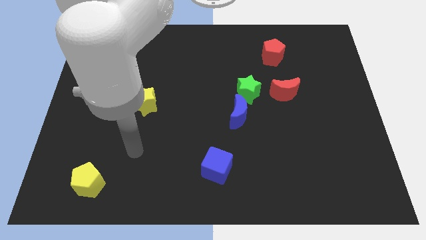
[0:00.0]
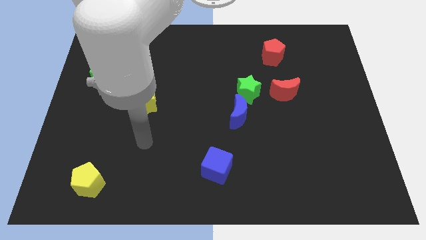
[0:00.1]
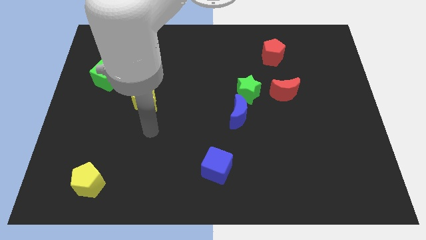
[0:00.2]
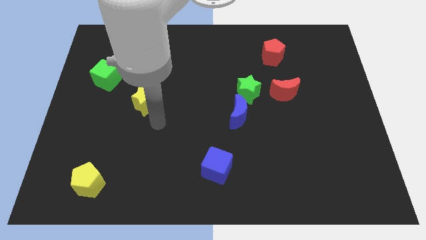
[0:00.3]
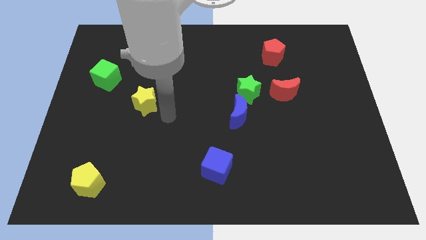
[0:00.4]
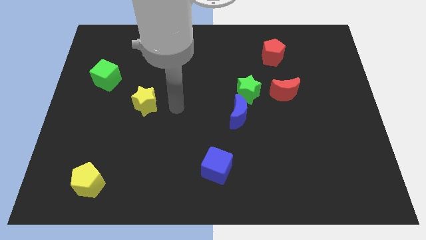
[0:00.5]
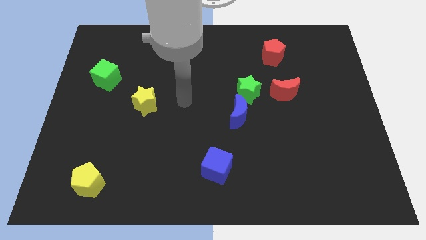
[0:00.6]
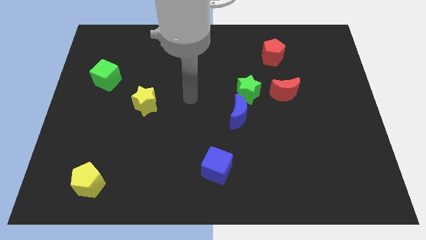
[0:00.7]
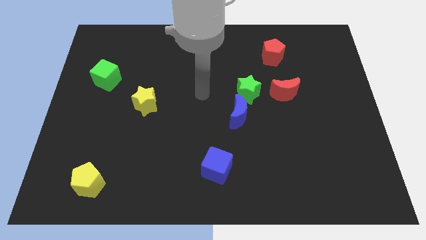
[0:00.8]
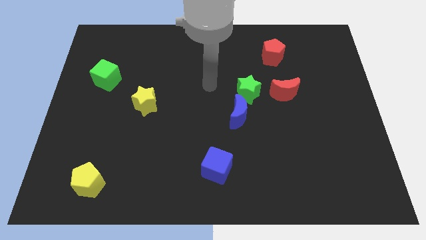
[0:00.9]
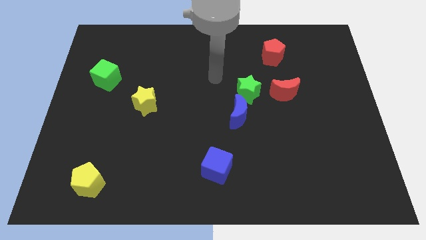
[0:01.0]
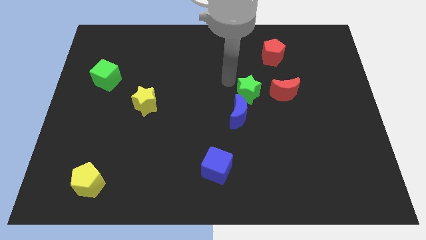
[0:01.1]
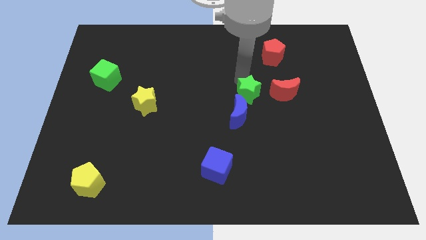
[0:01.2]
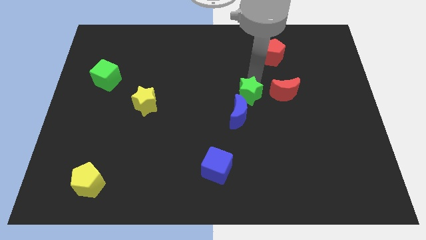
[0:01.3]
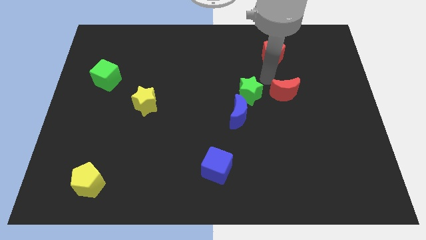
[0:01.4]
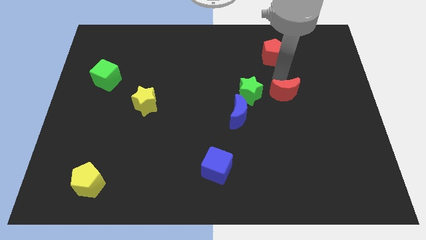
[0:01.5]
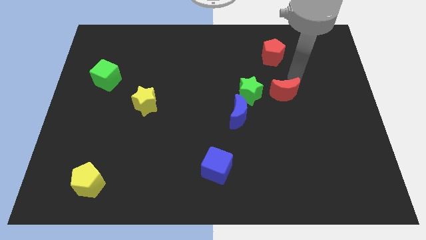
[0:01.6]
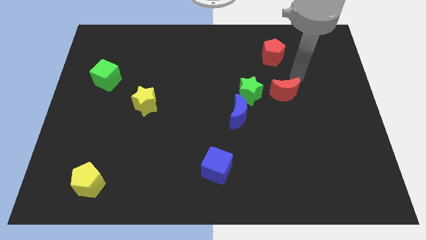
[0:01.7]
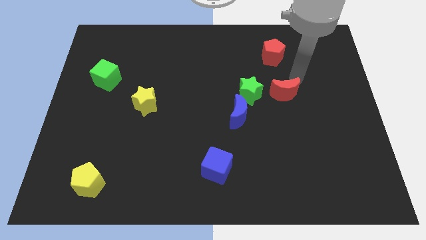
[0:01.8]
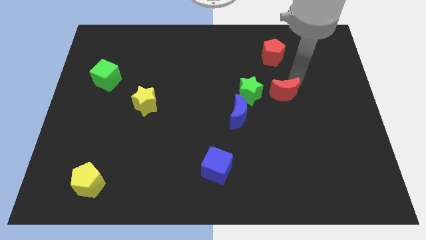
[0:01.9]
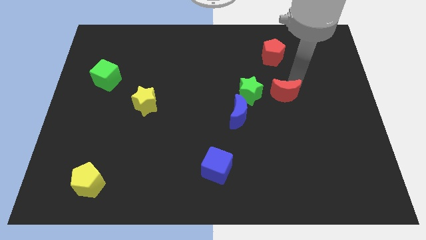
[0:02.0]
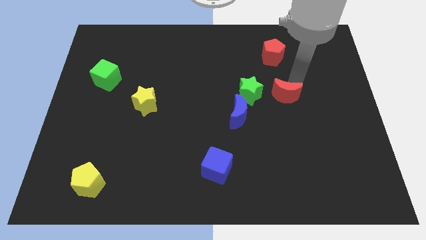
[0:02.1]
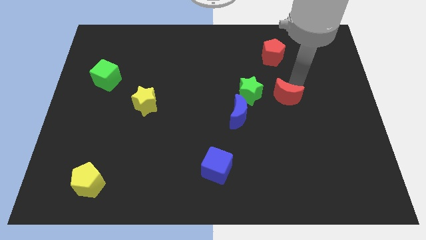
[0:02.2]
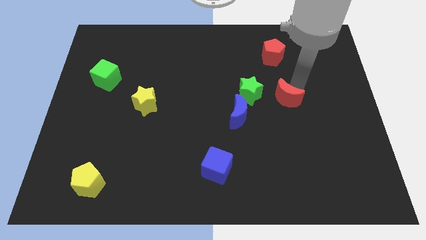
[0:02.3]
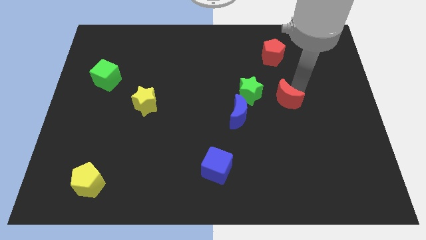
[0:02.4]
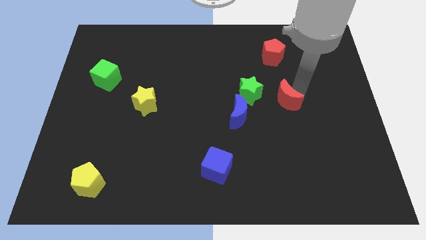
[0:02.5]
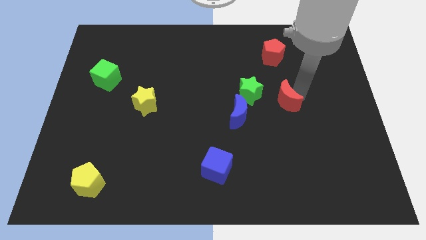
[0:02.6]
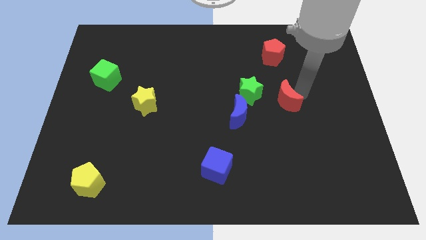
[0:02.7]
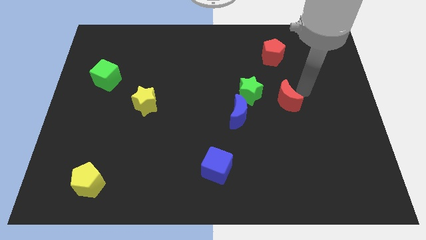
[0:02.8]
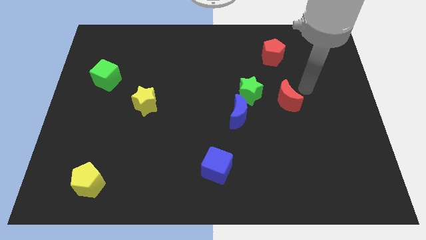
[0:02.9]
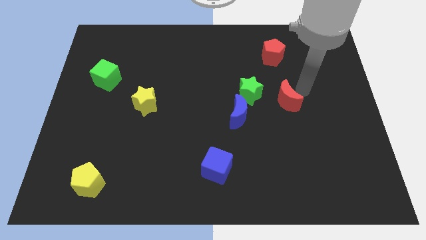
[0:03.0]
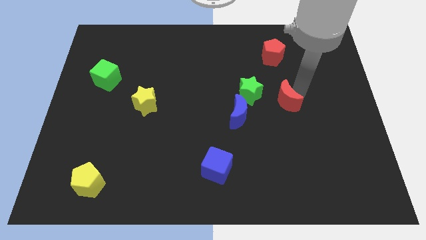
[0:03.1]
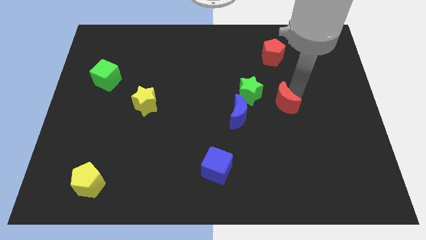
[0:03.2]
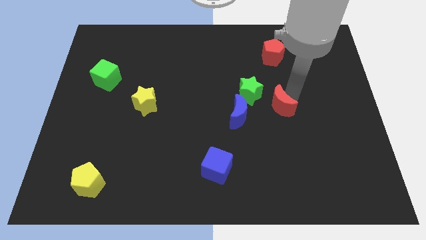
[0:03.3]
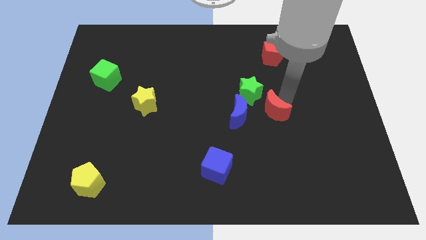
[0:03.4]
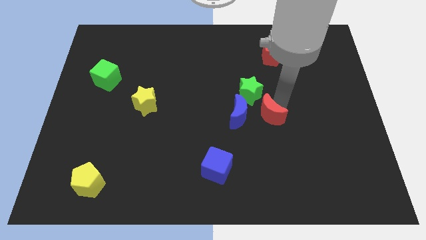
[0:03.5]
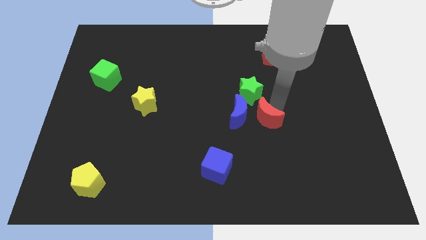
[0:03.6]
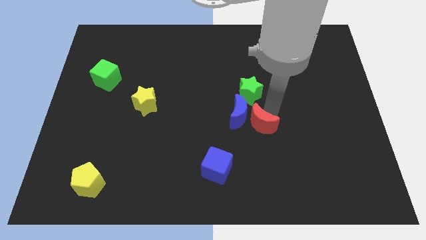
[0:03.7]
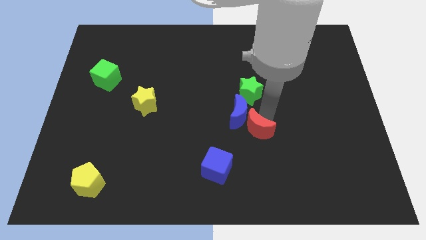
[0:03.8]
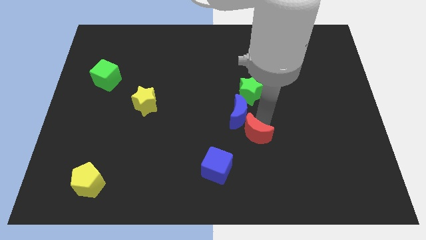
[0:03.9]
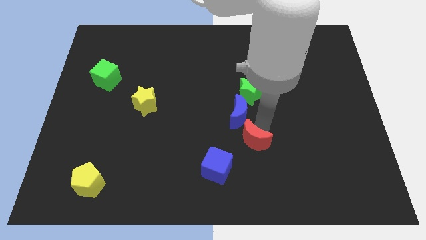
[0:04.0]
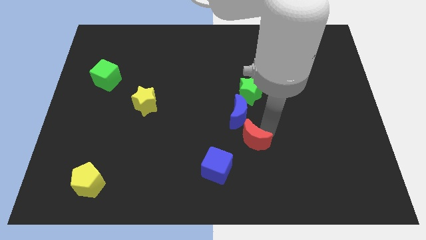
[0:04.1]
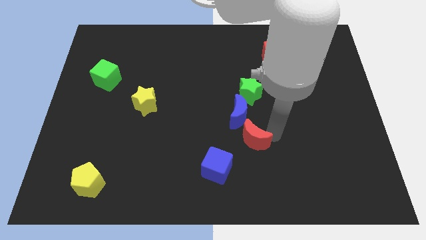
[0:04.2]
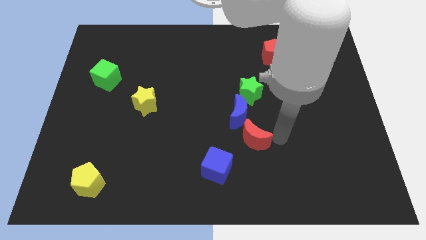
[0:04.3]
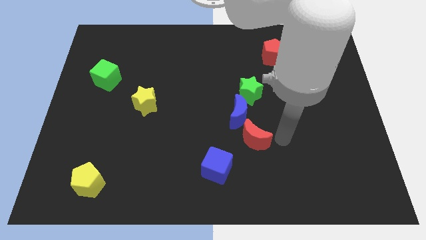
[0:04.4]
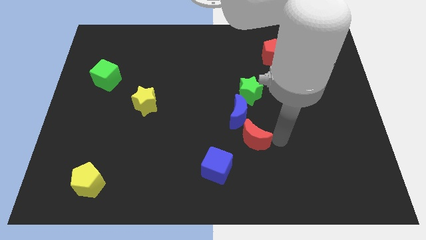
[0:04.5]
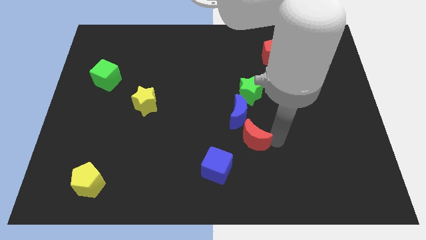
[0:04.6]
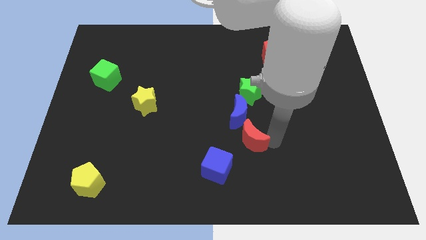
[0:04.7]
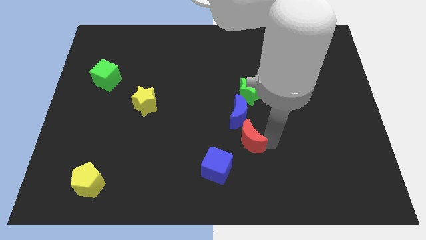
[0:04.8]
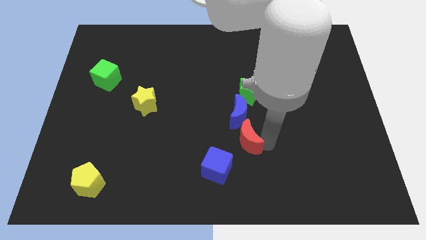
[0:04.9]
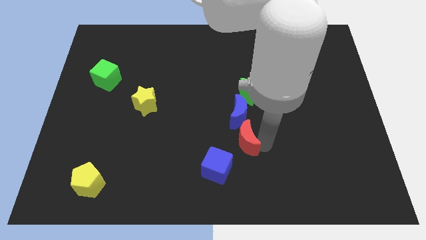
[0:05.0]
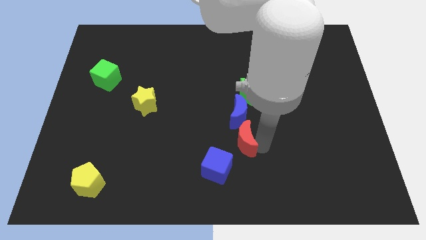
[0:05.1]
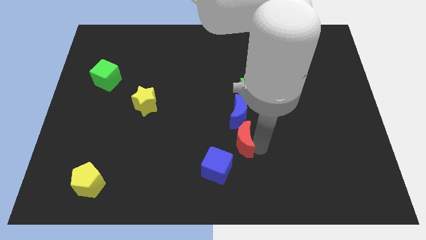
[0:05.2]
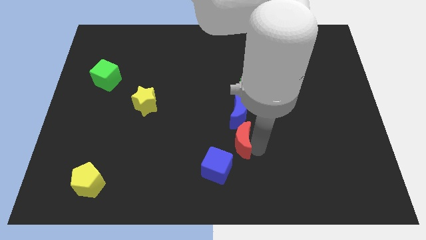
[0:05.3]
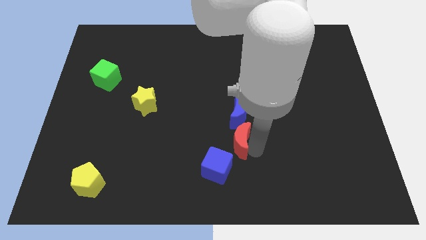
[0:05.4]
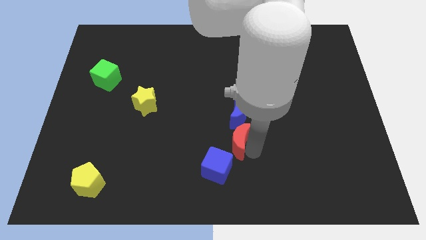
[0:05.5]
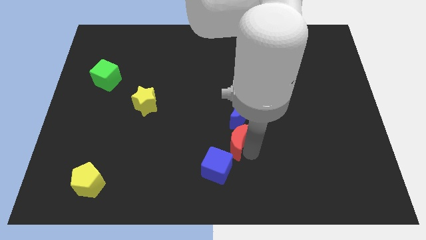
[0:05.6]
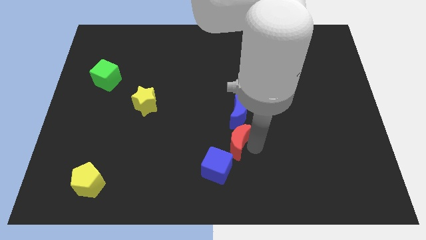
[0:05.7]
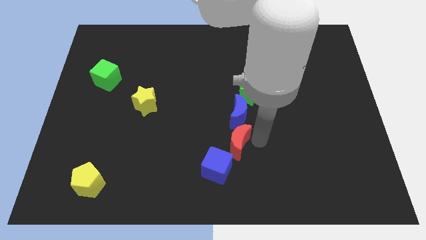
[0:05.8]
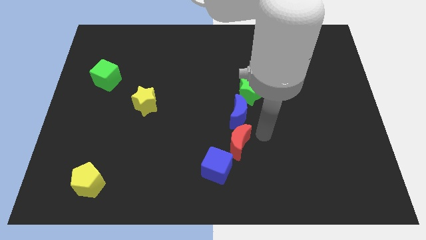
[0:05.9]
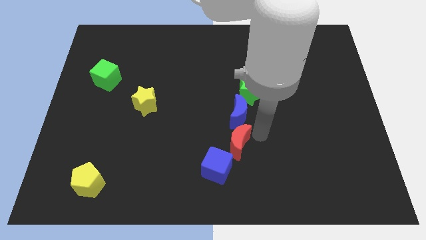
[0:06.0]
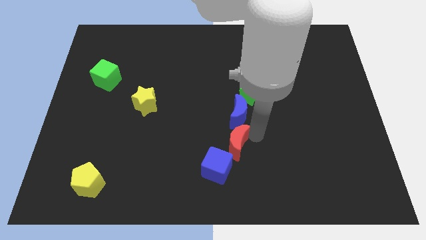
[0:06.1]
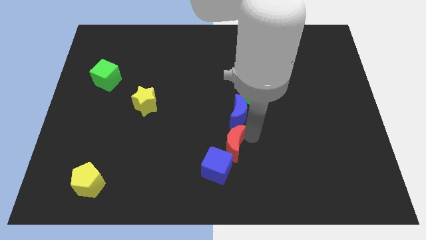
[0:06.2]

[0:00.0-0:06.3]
slide the red moon down and left

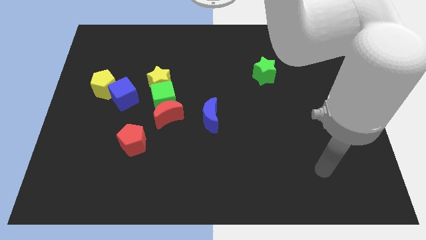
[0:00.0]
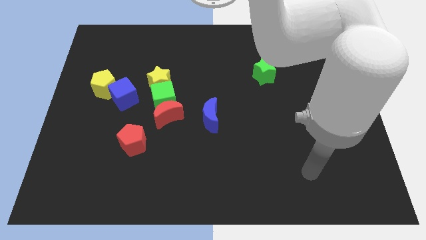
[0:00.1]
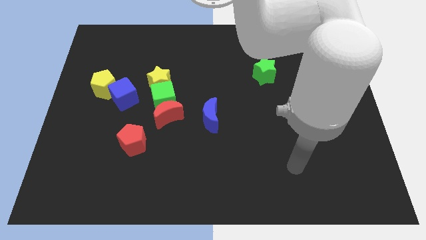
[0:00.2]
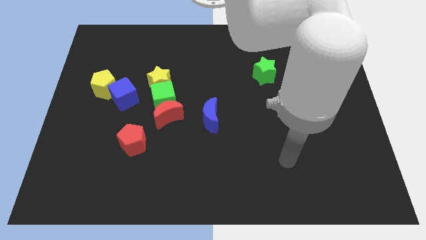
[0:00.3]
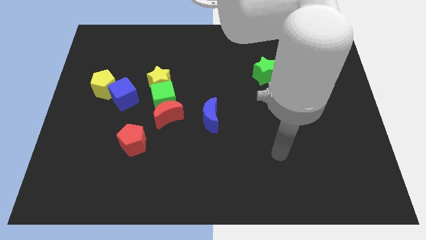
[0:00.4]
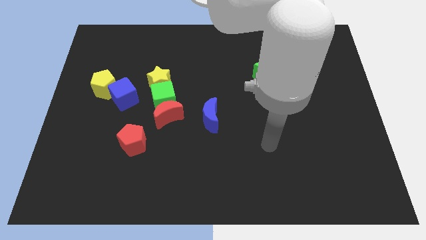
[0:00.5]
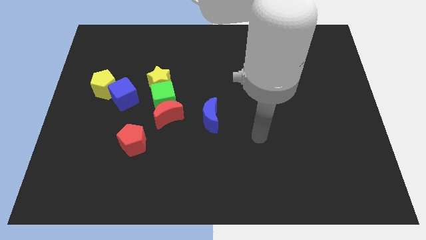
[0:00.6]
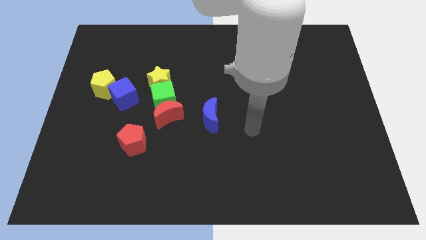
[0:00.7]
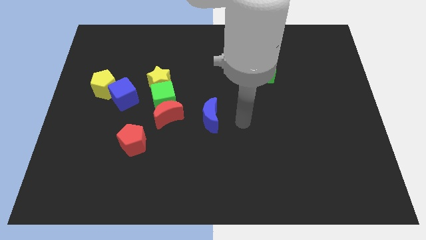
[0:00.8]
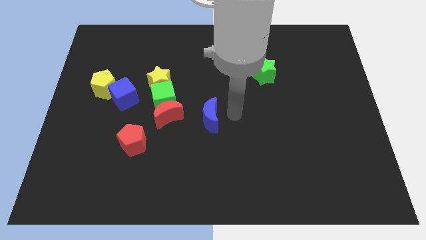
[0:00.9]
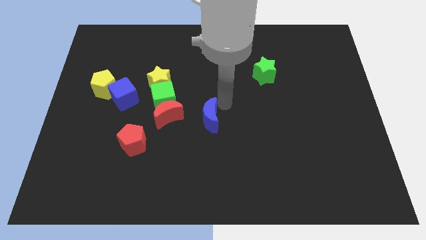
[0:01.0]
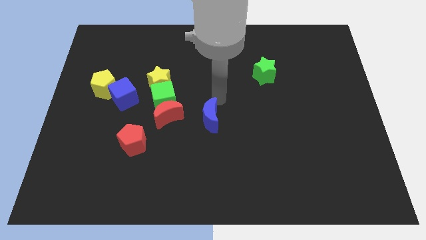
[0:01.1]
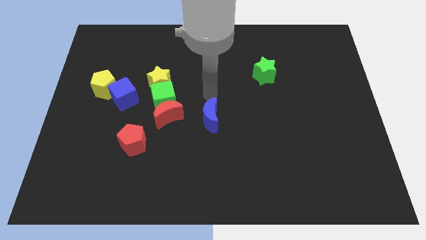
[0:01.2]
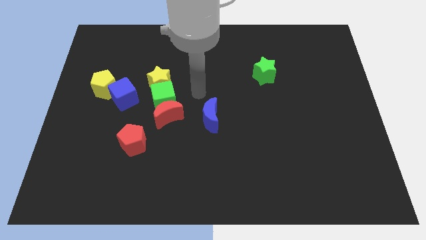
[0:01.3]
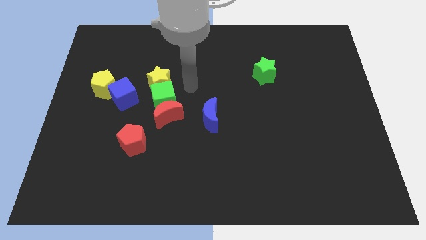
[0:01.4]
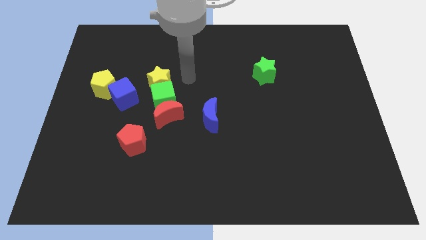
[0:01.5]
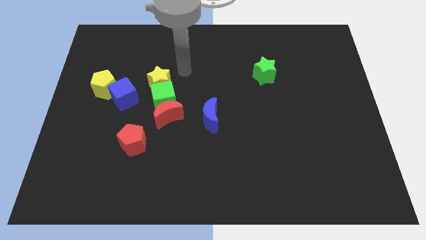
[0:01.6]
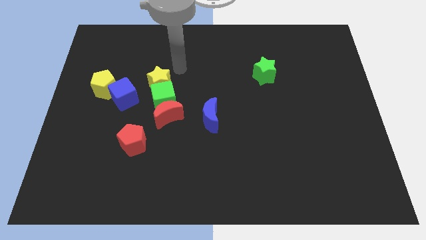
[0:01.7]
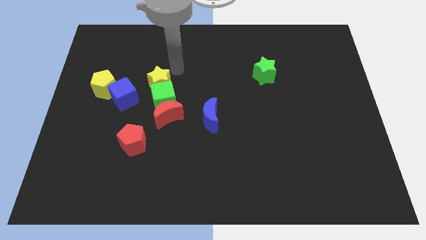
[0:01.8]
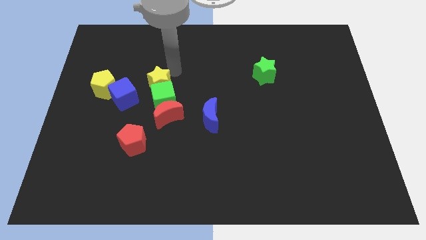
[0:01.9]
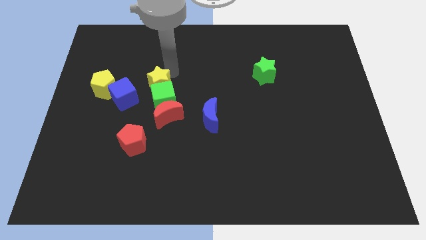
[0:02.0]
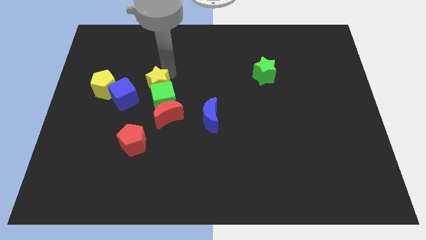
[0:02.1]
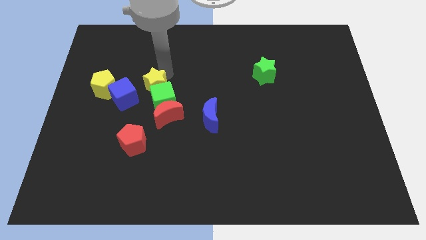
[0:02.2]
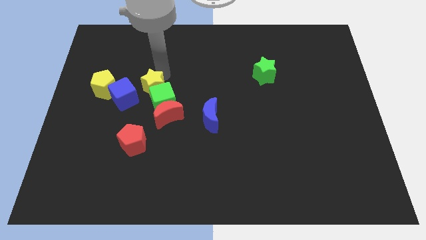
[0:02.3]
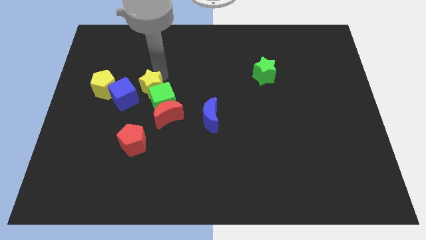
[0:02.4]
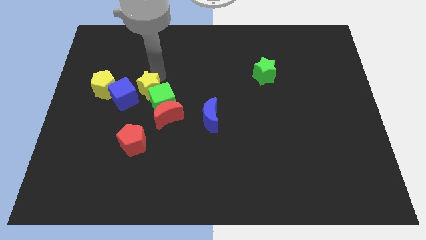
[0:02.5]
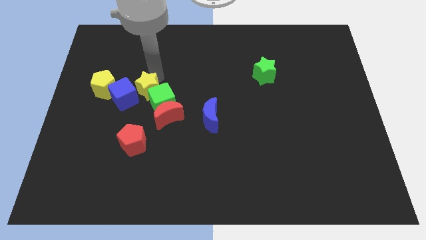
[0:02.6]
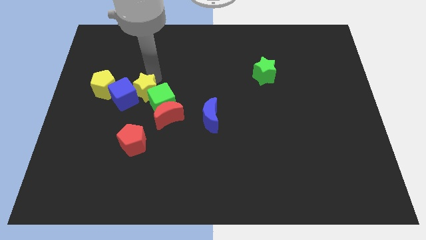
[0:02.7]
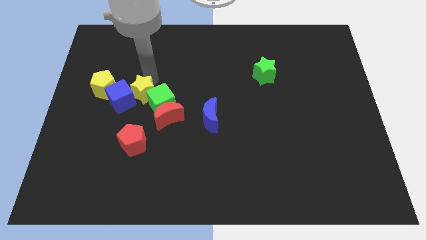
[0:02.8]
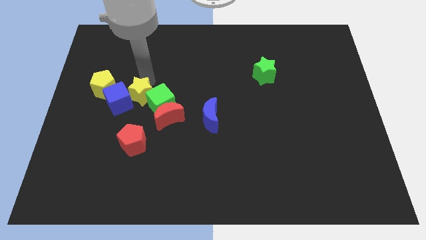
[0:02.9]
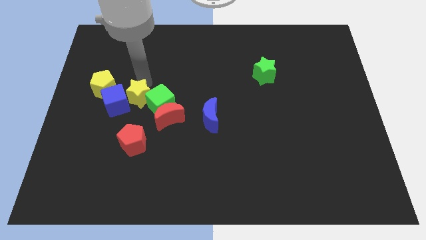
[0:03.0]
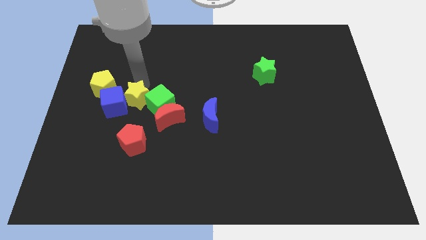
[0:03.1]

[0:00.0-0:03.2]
push the yellow star down and to the left diagonally a little bit
